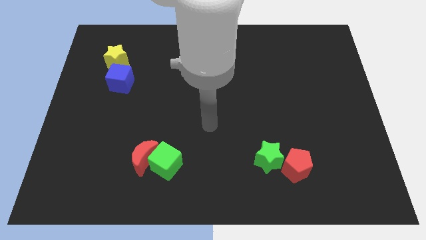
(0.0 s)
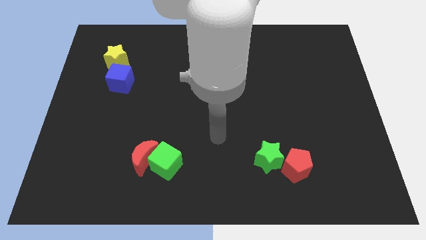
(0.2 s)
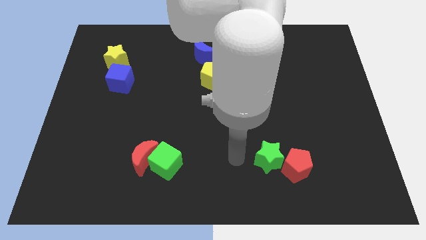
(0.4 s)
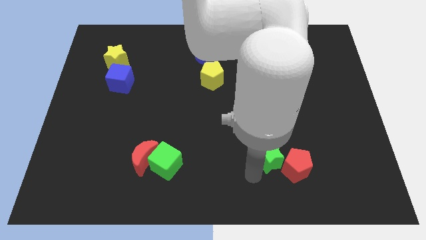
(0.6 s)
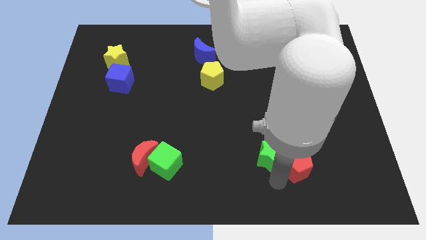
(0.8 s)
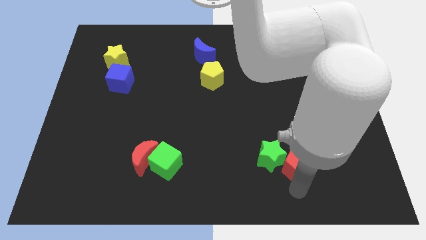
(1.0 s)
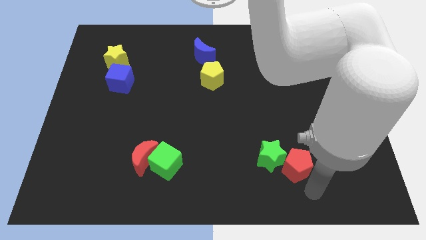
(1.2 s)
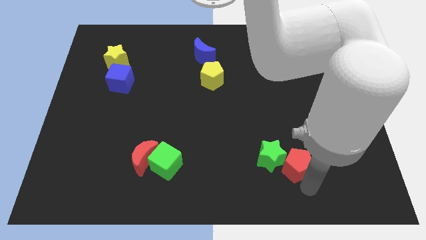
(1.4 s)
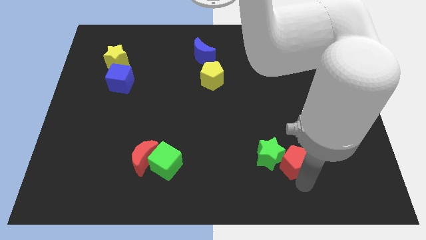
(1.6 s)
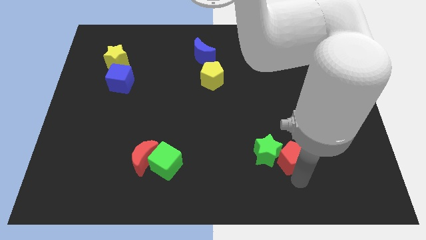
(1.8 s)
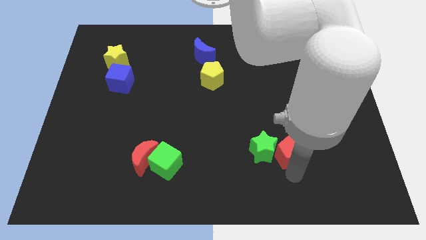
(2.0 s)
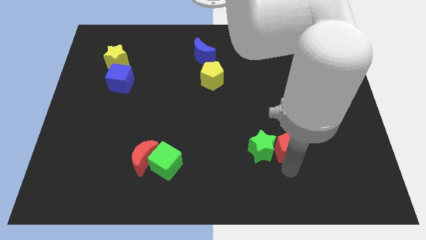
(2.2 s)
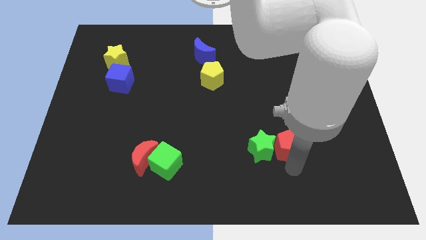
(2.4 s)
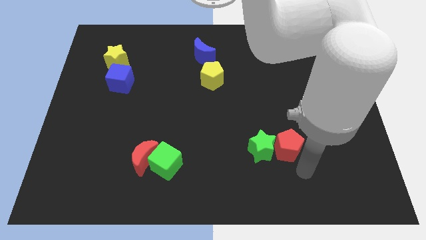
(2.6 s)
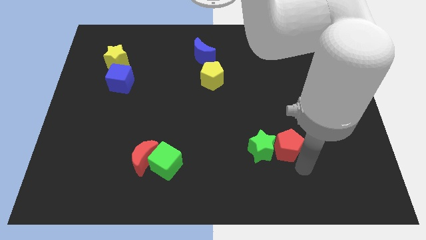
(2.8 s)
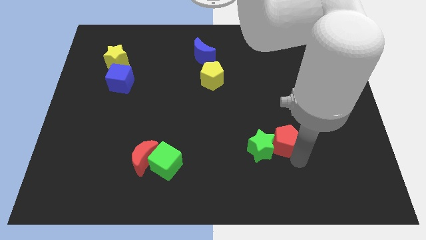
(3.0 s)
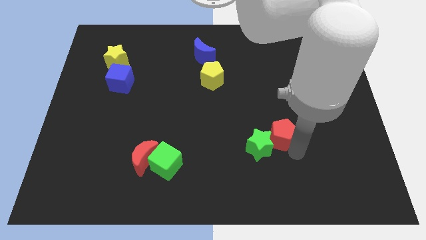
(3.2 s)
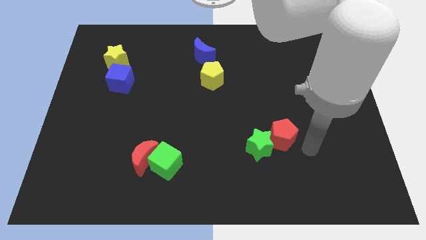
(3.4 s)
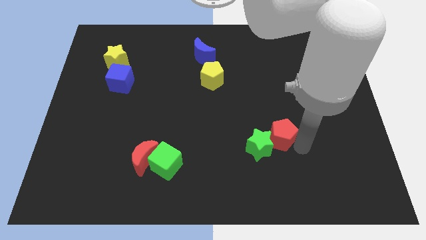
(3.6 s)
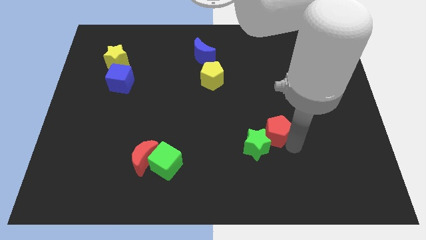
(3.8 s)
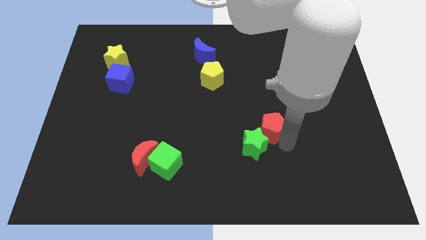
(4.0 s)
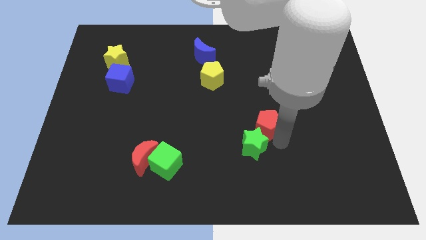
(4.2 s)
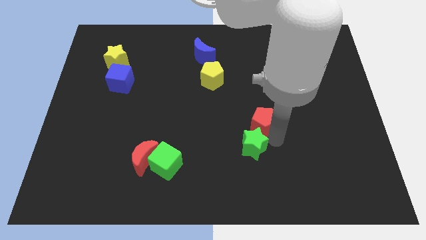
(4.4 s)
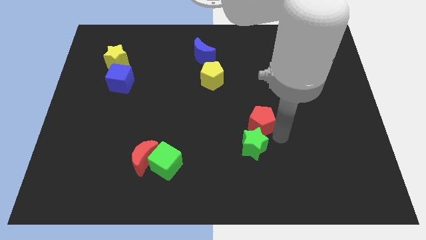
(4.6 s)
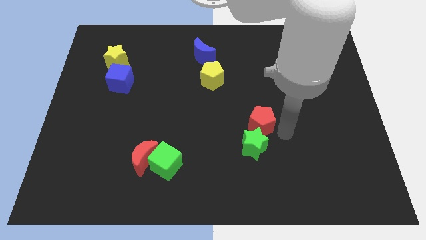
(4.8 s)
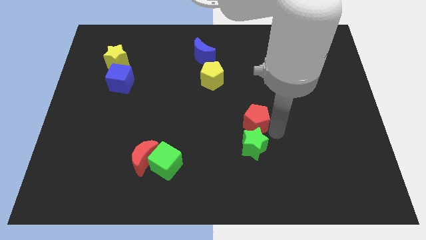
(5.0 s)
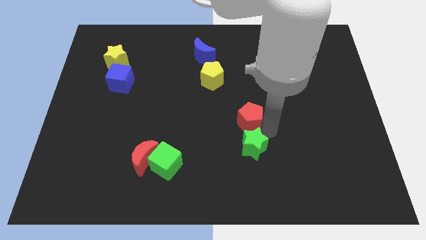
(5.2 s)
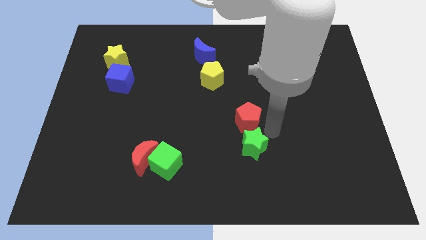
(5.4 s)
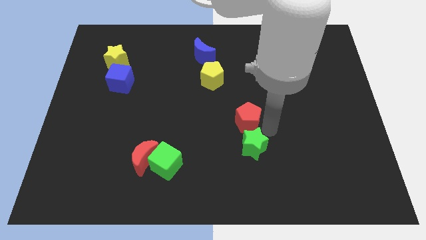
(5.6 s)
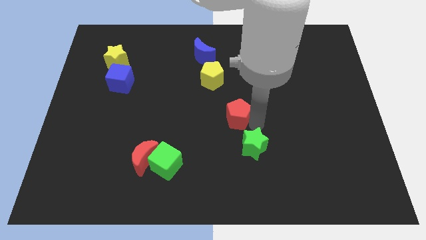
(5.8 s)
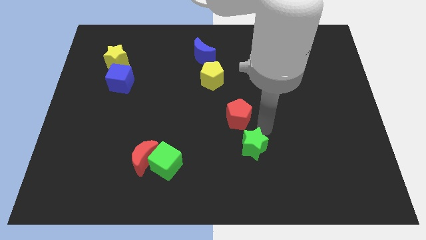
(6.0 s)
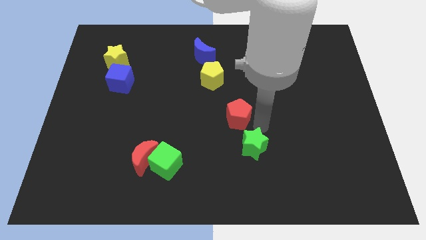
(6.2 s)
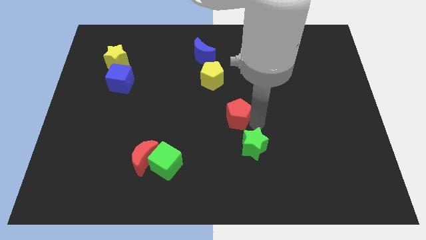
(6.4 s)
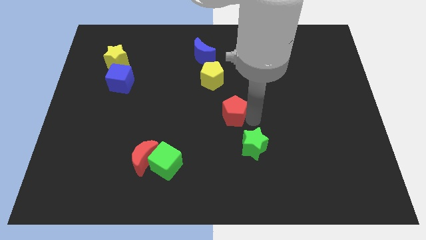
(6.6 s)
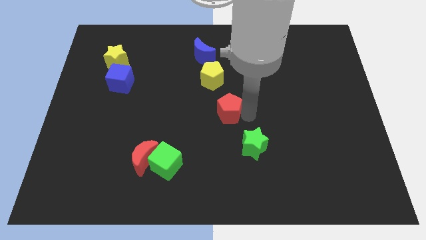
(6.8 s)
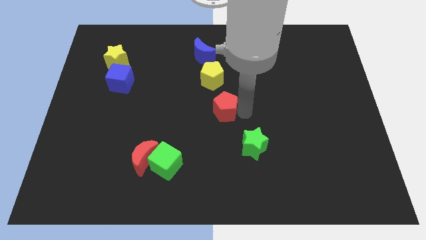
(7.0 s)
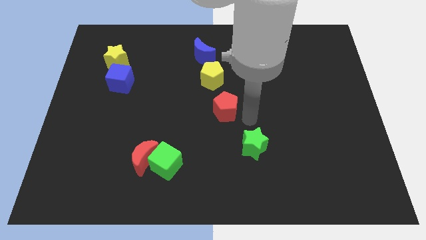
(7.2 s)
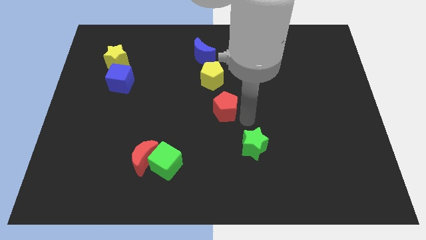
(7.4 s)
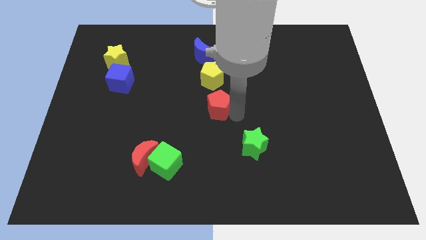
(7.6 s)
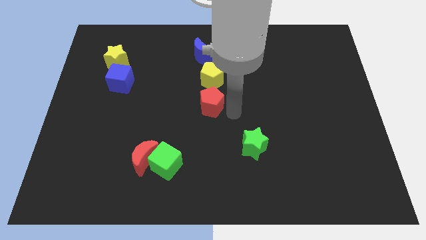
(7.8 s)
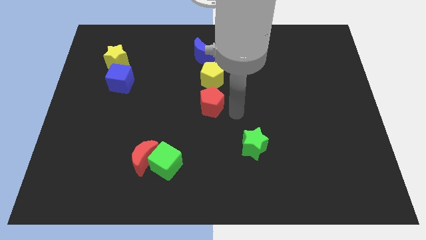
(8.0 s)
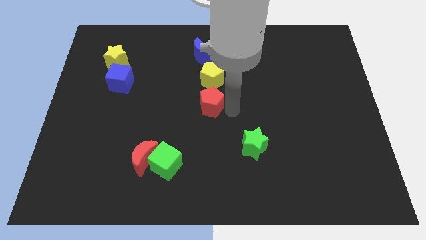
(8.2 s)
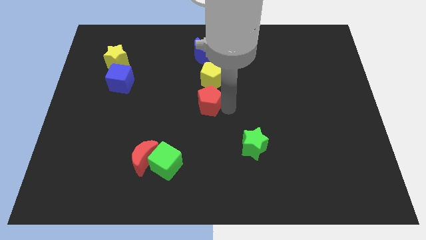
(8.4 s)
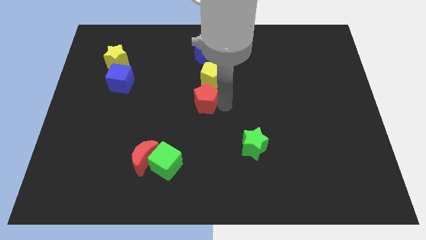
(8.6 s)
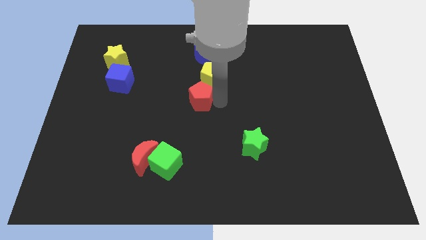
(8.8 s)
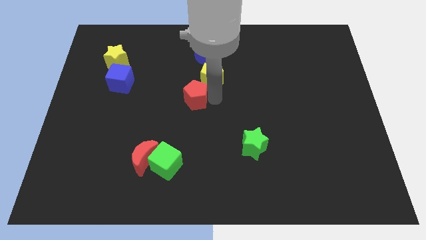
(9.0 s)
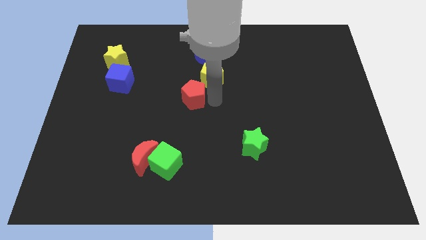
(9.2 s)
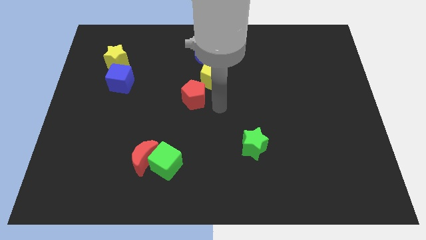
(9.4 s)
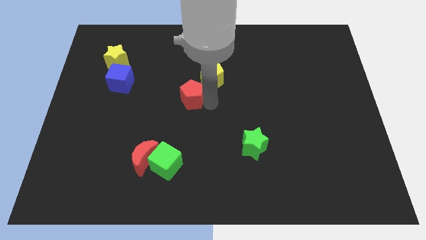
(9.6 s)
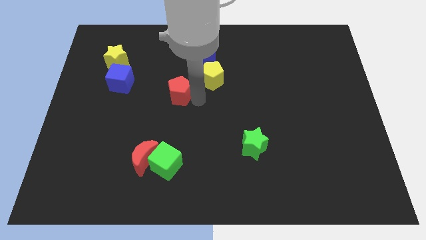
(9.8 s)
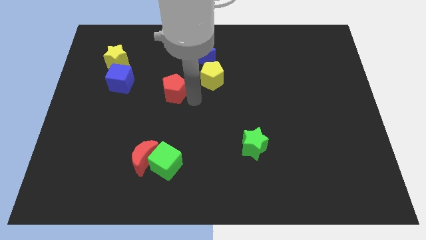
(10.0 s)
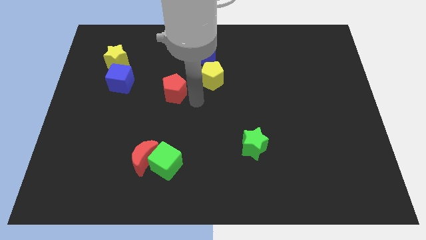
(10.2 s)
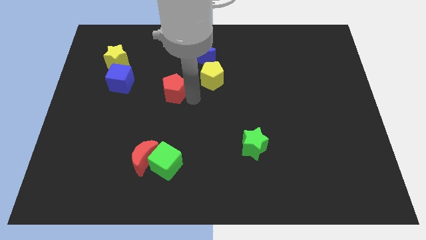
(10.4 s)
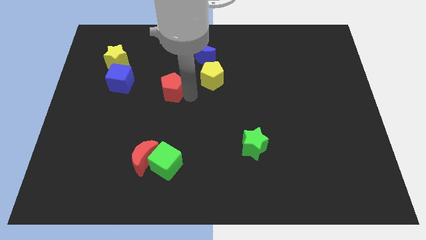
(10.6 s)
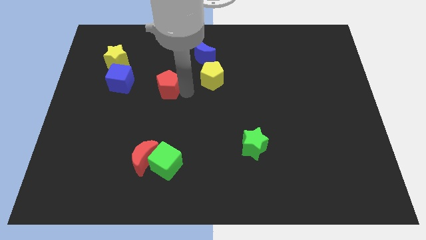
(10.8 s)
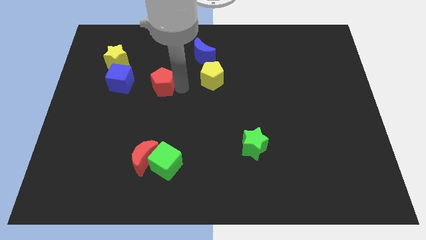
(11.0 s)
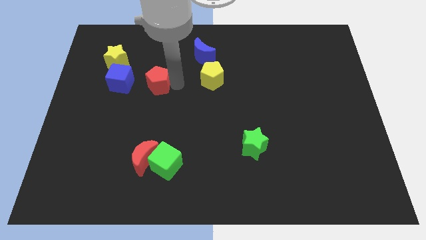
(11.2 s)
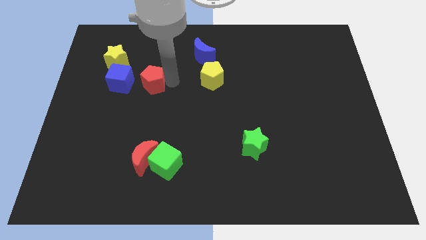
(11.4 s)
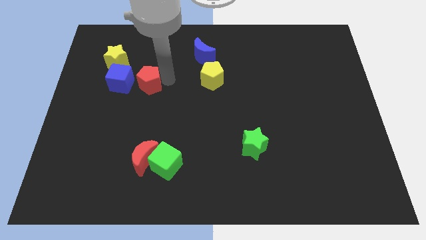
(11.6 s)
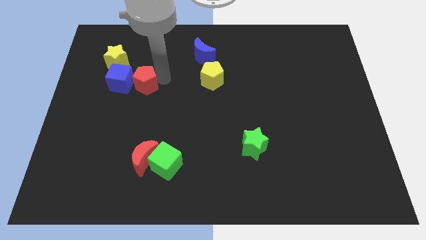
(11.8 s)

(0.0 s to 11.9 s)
push the red pentagon to the blue cube
